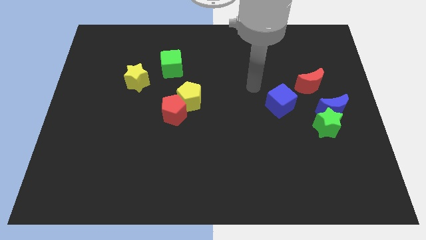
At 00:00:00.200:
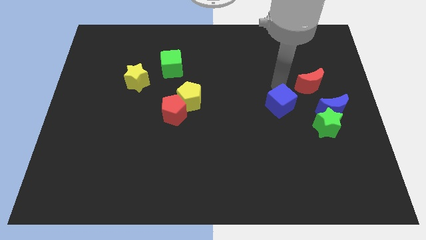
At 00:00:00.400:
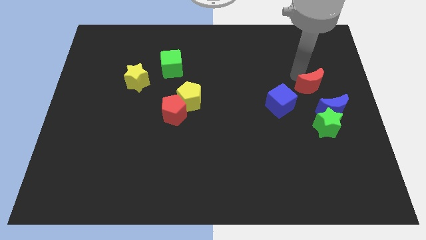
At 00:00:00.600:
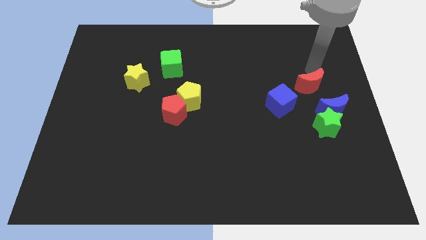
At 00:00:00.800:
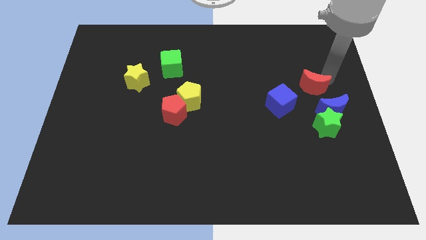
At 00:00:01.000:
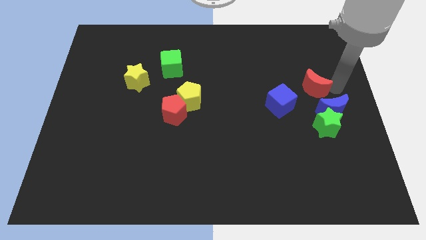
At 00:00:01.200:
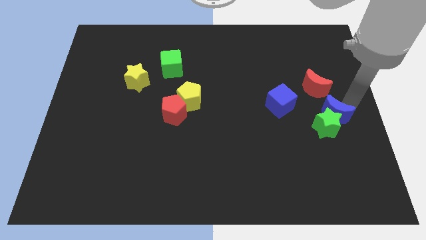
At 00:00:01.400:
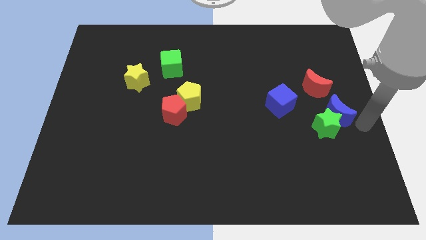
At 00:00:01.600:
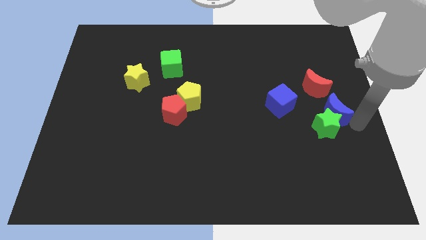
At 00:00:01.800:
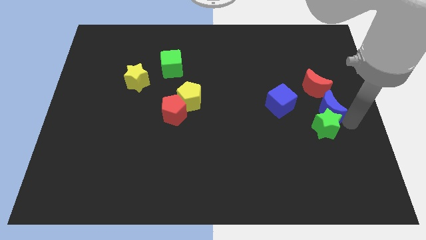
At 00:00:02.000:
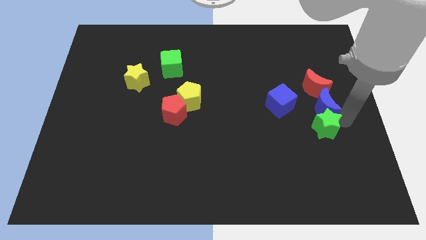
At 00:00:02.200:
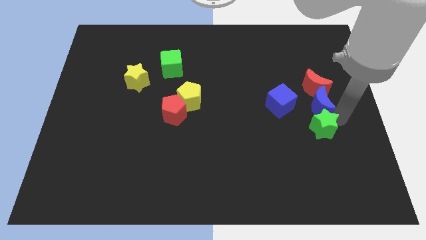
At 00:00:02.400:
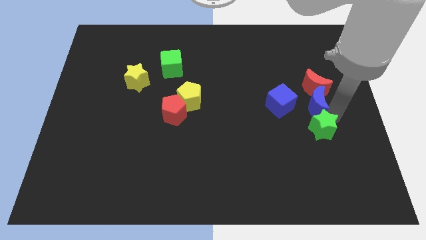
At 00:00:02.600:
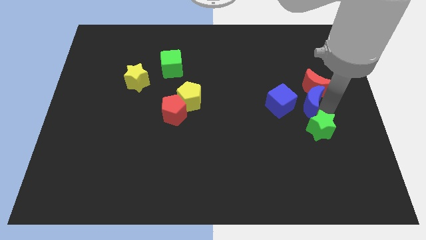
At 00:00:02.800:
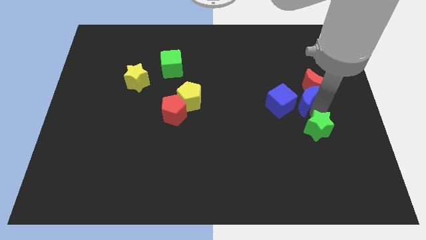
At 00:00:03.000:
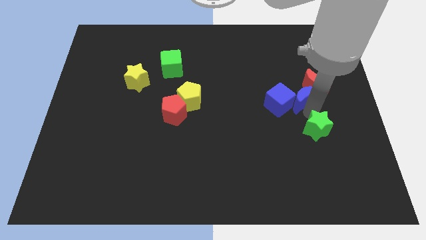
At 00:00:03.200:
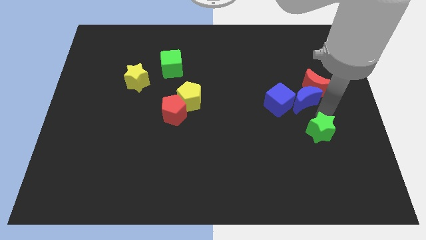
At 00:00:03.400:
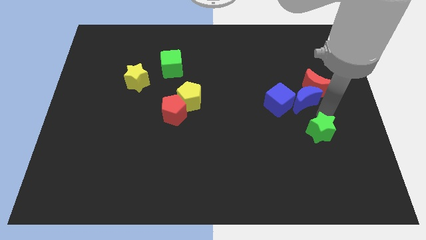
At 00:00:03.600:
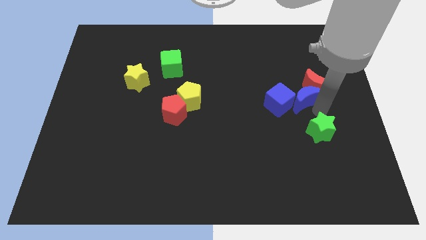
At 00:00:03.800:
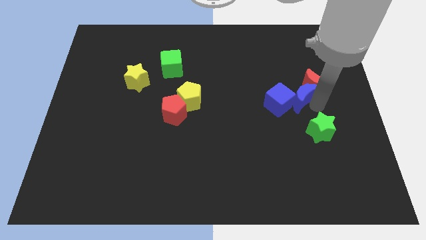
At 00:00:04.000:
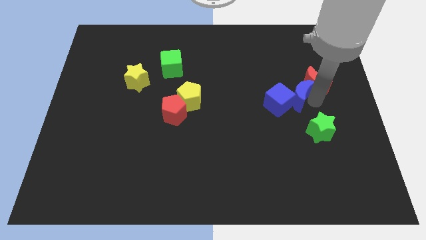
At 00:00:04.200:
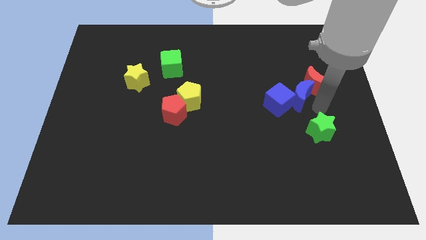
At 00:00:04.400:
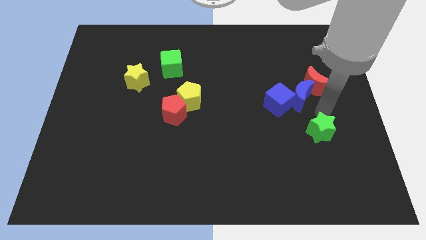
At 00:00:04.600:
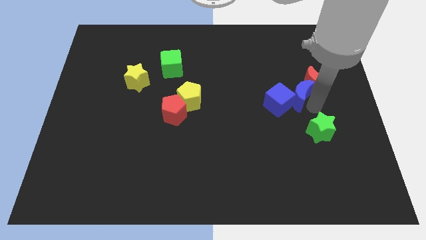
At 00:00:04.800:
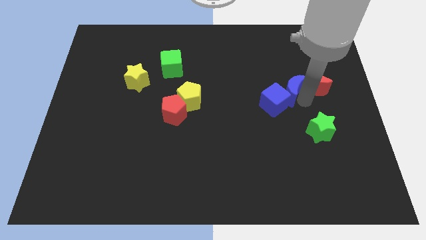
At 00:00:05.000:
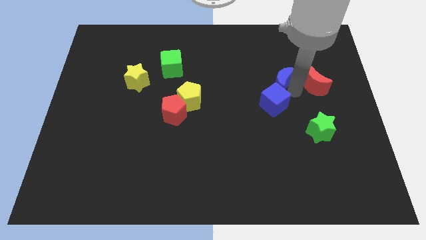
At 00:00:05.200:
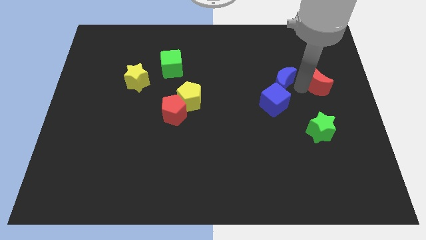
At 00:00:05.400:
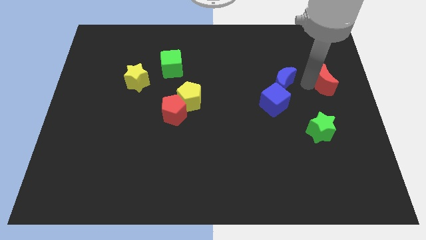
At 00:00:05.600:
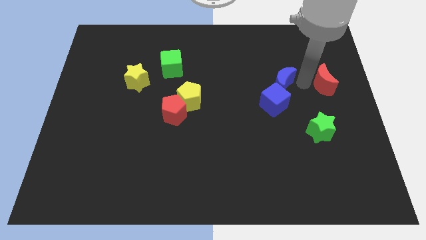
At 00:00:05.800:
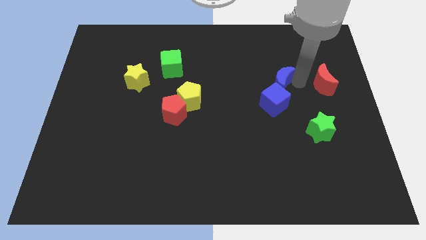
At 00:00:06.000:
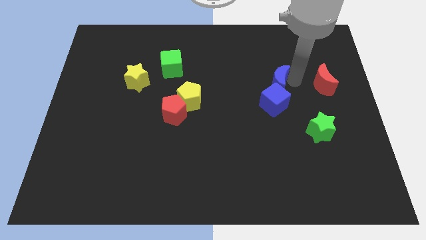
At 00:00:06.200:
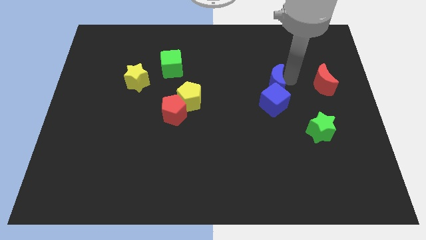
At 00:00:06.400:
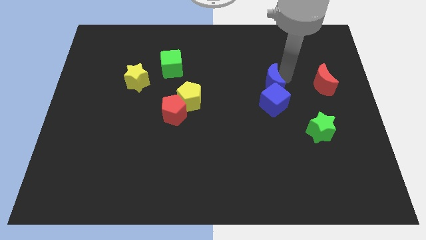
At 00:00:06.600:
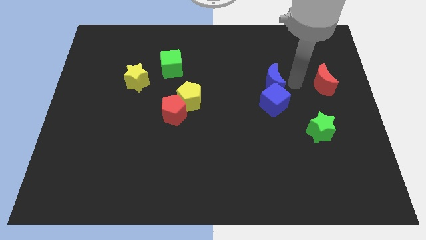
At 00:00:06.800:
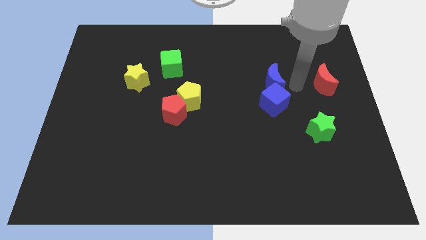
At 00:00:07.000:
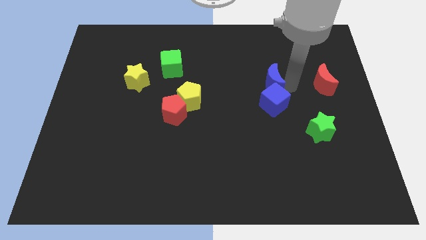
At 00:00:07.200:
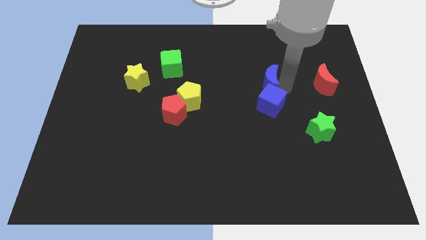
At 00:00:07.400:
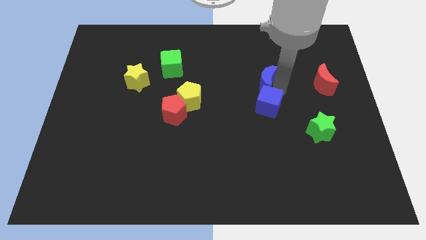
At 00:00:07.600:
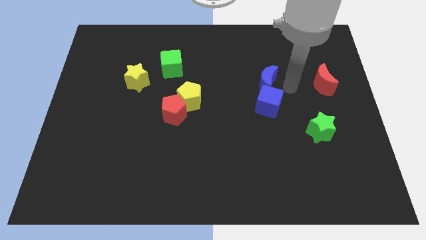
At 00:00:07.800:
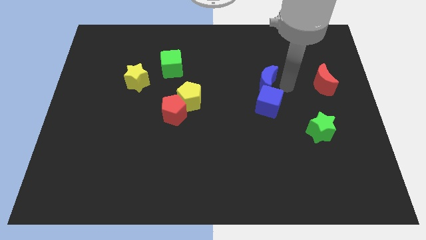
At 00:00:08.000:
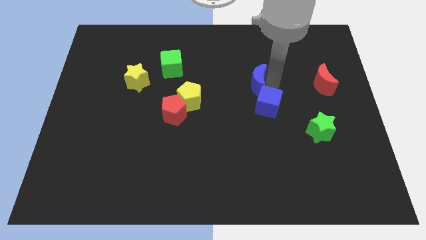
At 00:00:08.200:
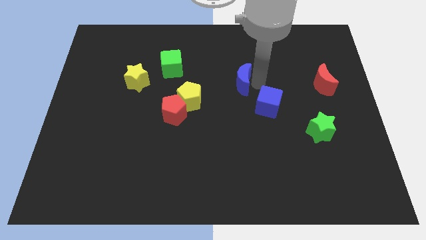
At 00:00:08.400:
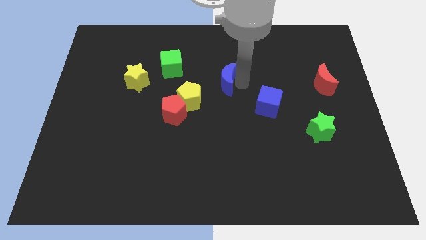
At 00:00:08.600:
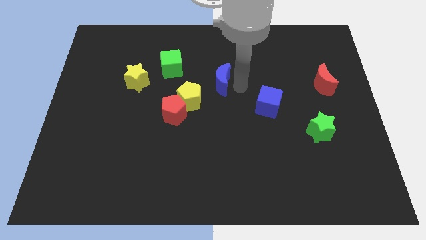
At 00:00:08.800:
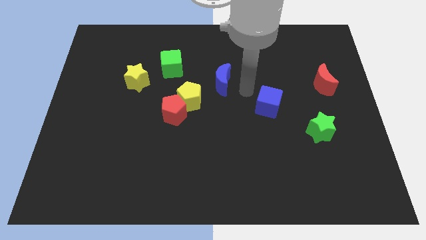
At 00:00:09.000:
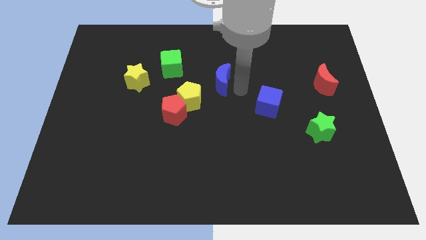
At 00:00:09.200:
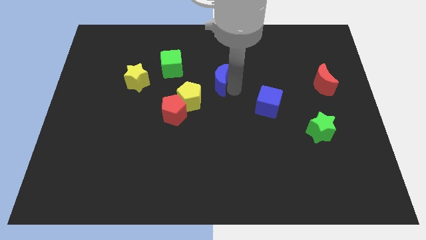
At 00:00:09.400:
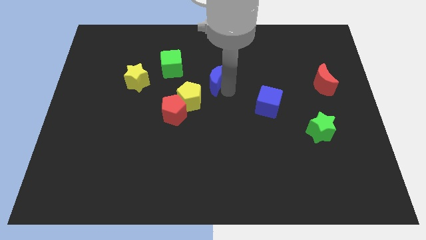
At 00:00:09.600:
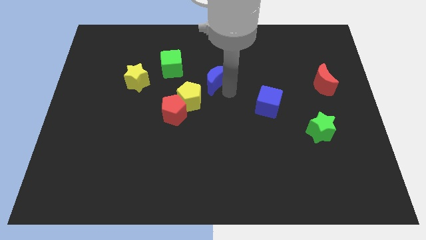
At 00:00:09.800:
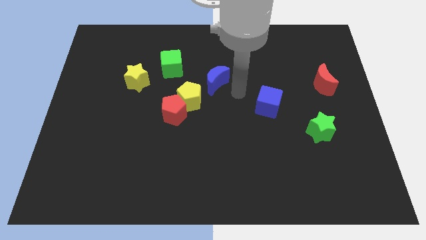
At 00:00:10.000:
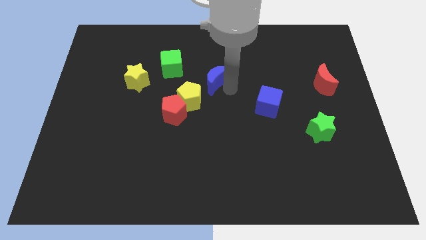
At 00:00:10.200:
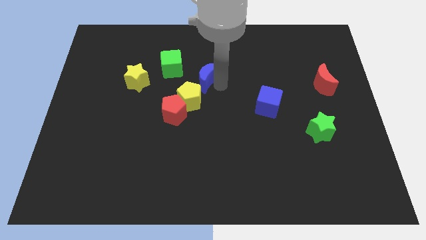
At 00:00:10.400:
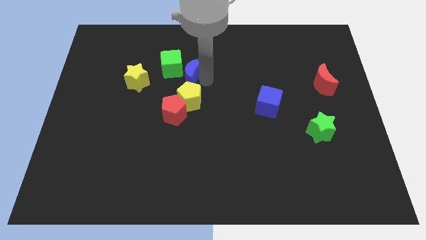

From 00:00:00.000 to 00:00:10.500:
put the blue moon next to the green cube

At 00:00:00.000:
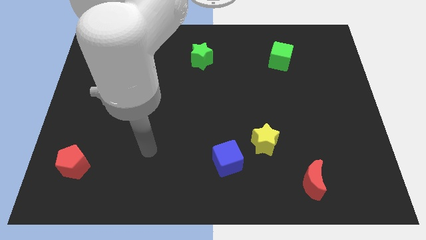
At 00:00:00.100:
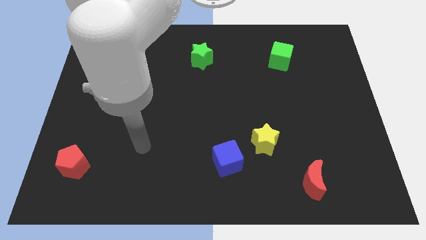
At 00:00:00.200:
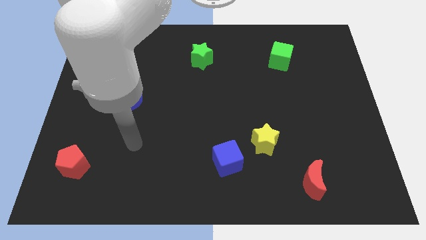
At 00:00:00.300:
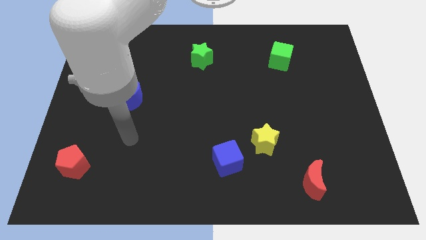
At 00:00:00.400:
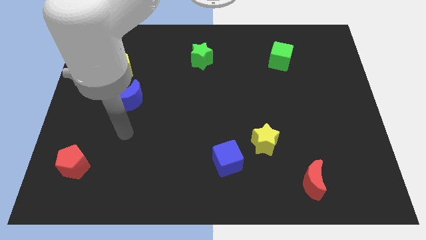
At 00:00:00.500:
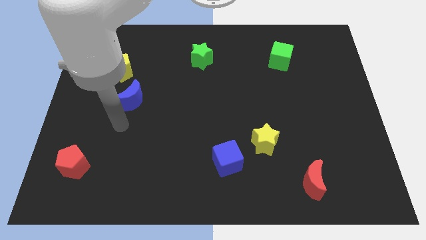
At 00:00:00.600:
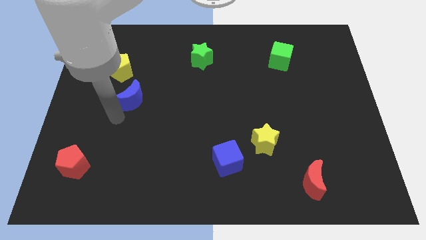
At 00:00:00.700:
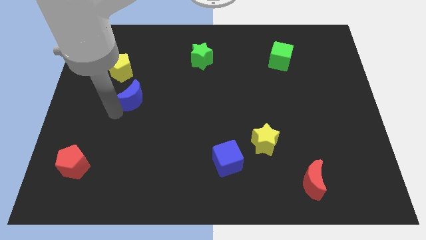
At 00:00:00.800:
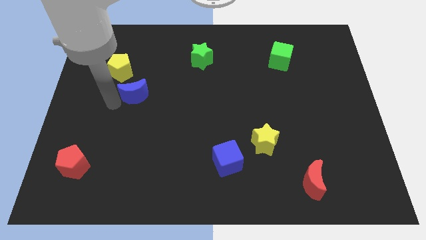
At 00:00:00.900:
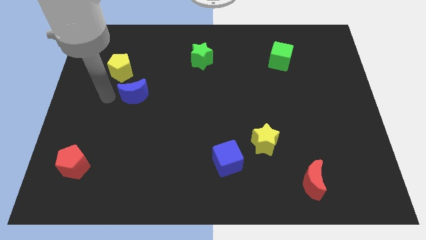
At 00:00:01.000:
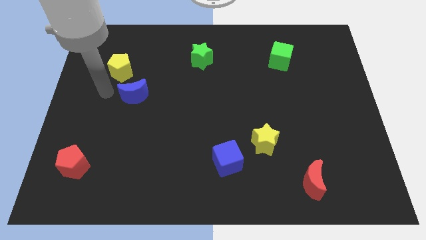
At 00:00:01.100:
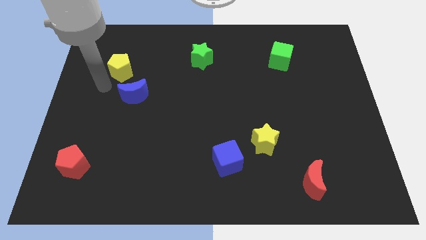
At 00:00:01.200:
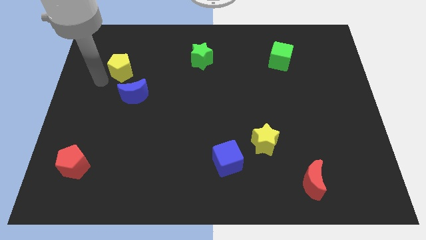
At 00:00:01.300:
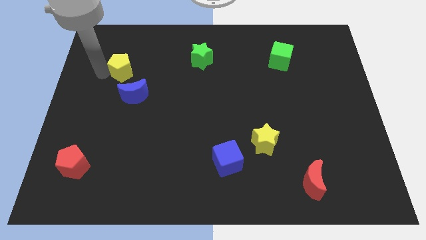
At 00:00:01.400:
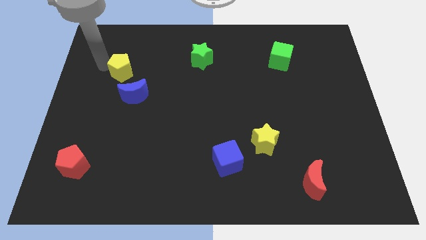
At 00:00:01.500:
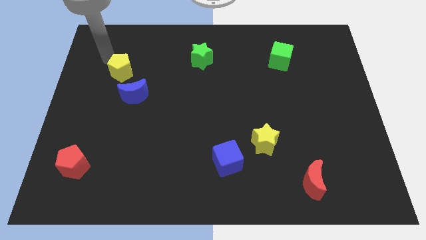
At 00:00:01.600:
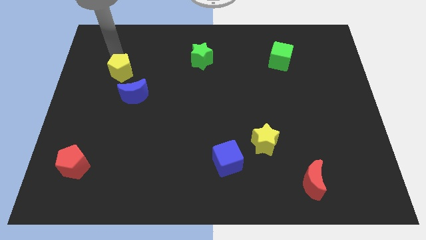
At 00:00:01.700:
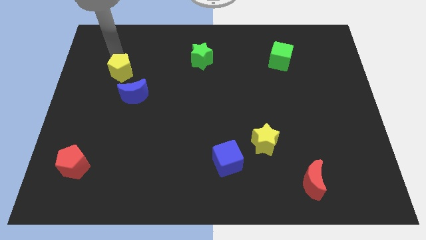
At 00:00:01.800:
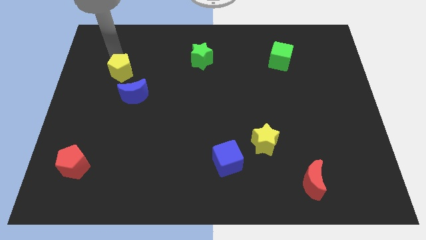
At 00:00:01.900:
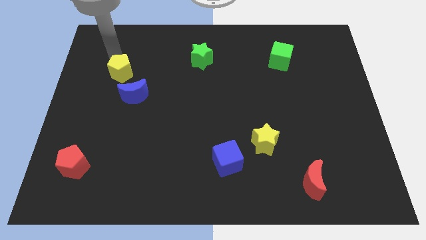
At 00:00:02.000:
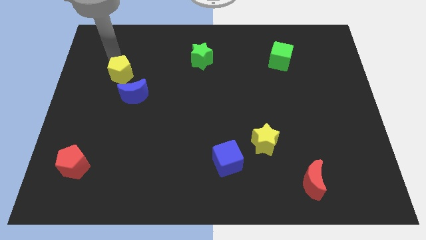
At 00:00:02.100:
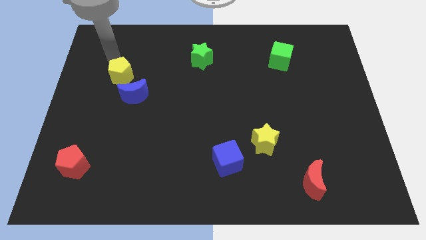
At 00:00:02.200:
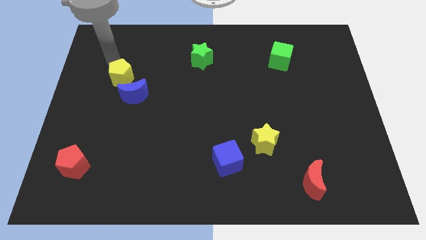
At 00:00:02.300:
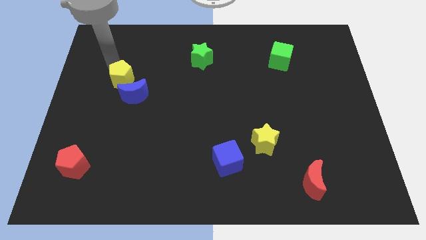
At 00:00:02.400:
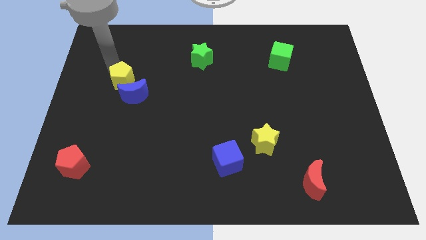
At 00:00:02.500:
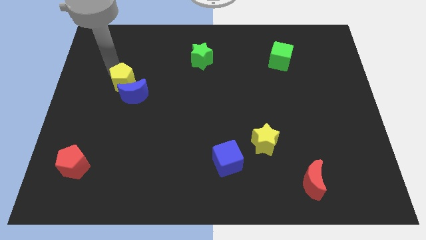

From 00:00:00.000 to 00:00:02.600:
slide the yellow pentagon to the blue moon
